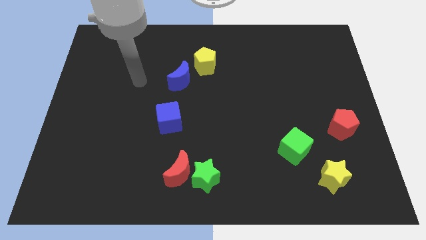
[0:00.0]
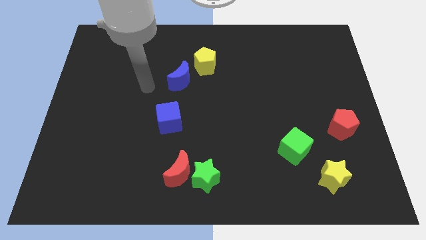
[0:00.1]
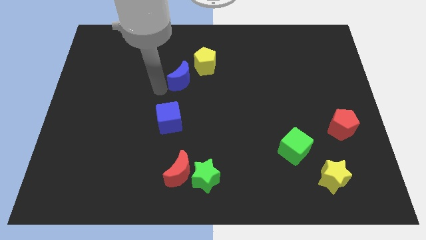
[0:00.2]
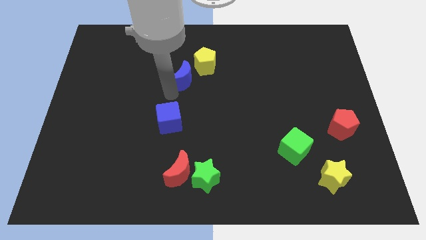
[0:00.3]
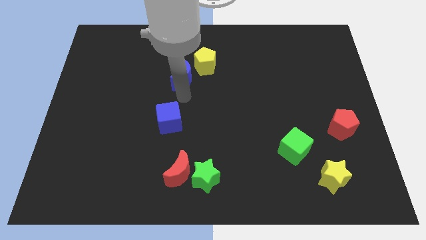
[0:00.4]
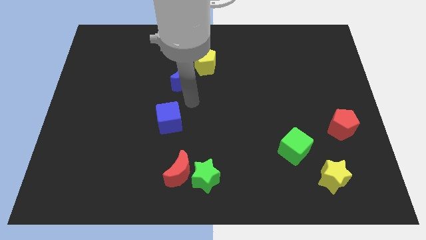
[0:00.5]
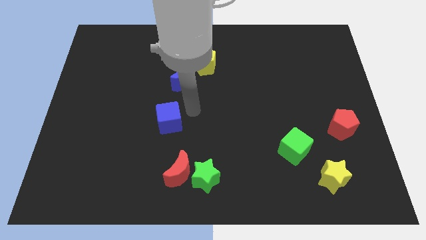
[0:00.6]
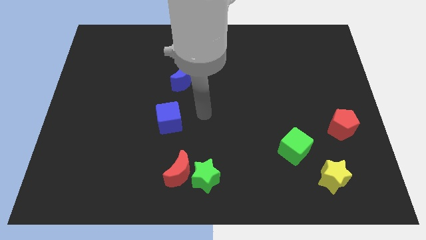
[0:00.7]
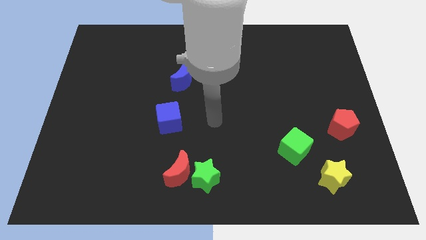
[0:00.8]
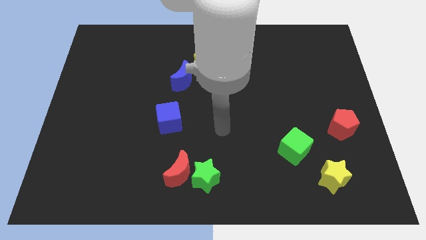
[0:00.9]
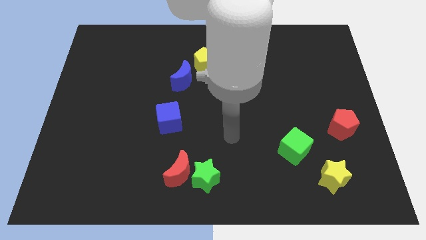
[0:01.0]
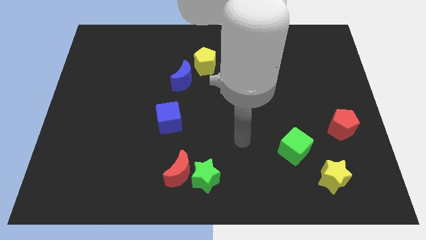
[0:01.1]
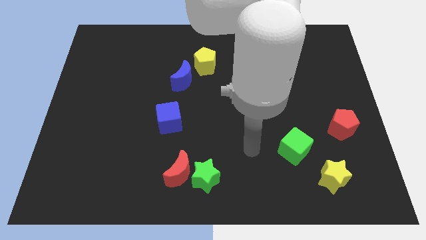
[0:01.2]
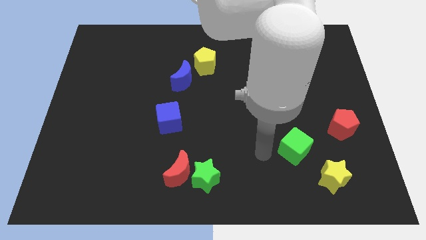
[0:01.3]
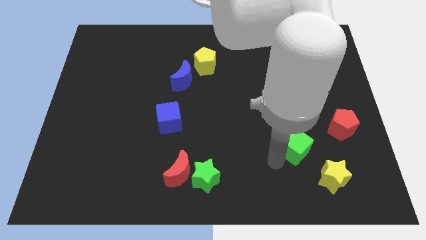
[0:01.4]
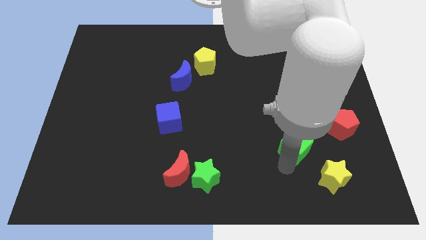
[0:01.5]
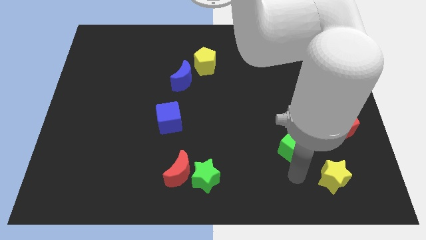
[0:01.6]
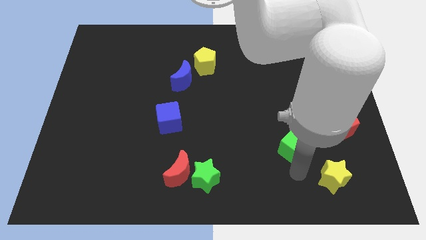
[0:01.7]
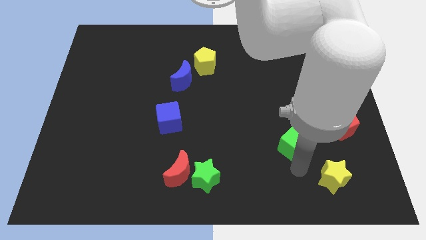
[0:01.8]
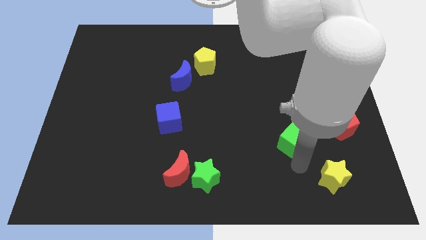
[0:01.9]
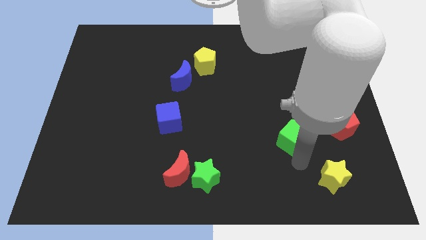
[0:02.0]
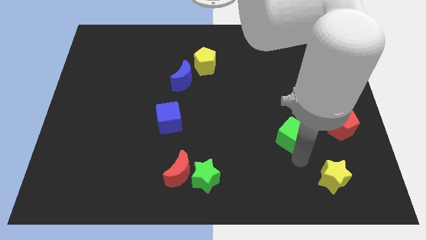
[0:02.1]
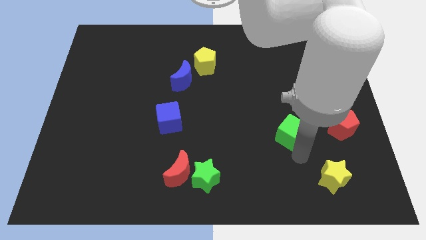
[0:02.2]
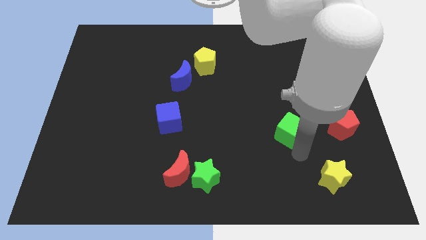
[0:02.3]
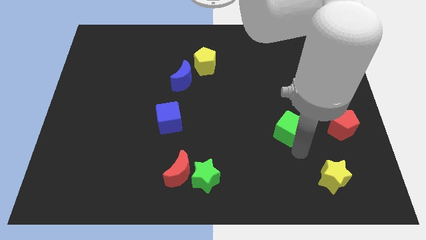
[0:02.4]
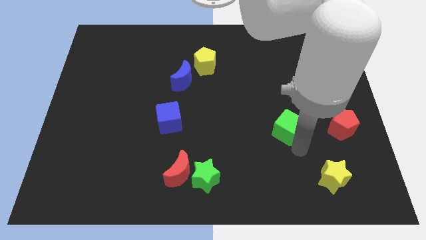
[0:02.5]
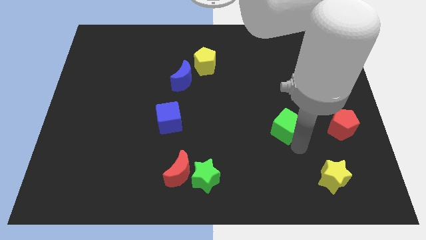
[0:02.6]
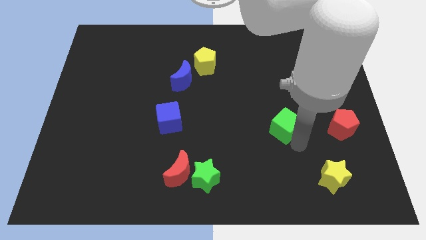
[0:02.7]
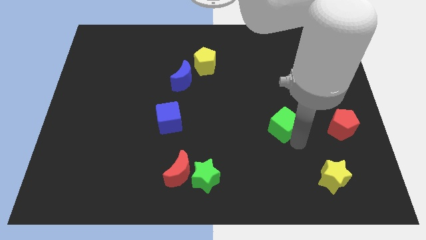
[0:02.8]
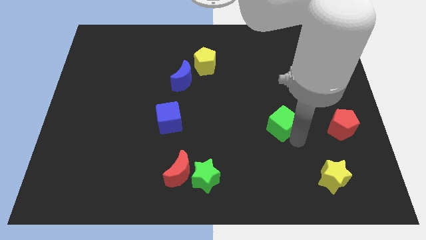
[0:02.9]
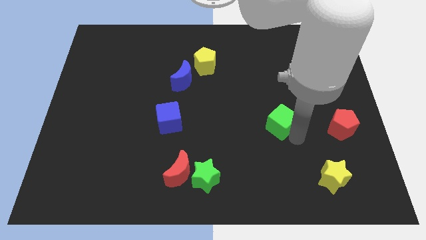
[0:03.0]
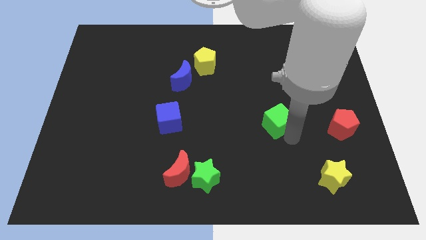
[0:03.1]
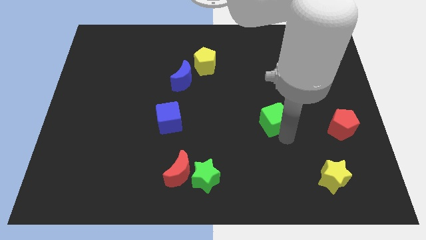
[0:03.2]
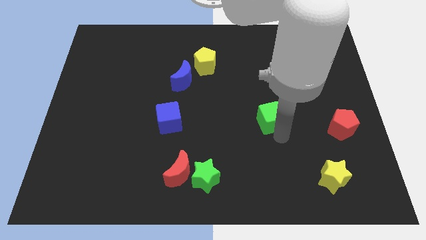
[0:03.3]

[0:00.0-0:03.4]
push the green cube slightly up

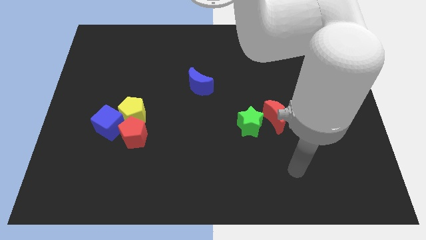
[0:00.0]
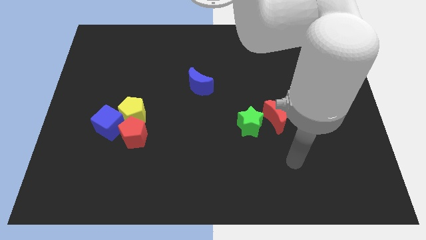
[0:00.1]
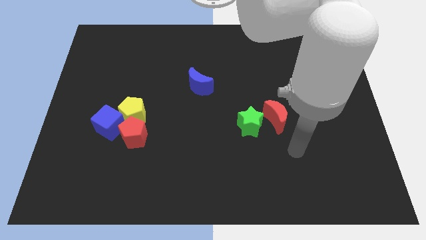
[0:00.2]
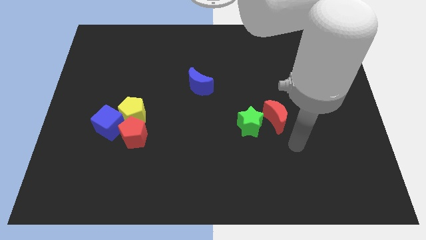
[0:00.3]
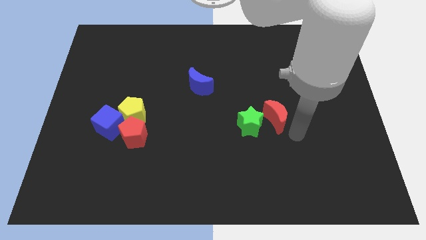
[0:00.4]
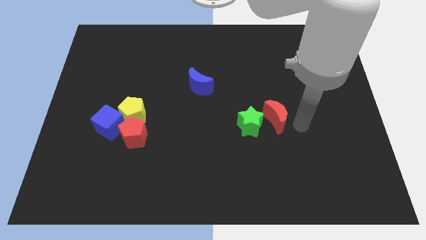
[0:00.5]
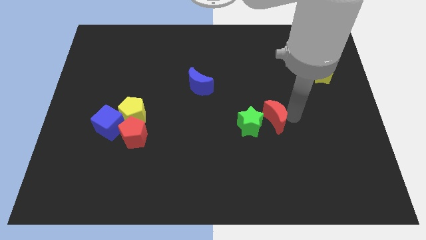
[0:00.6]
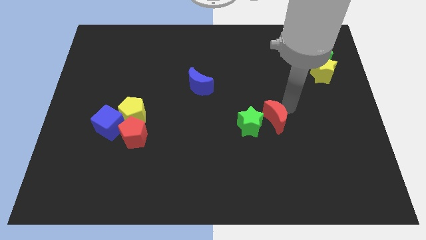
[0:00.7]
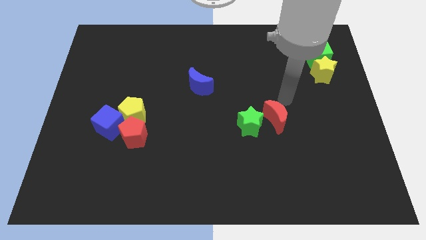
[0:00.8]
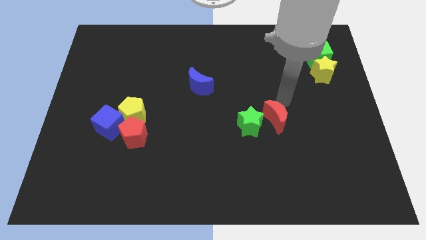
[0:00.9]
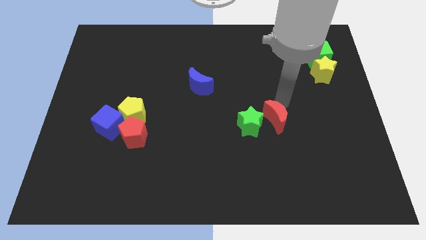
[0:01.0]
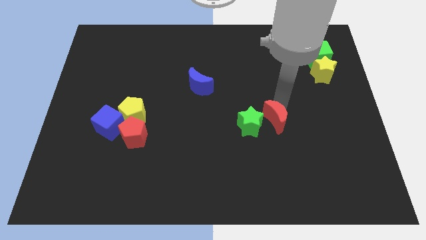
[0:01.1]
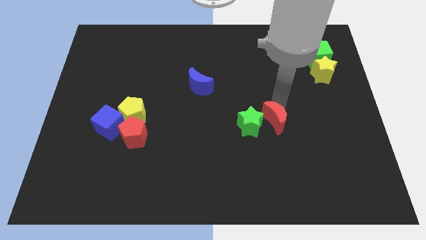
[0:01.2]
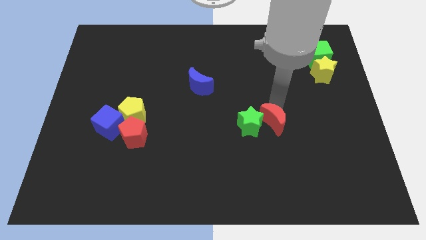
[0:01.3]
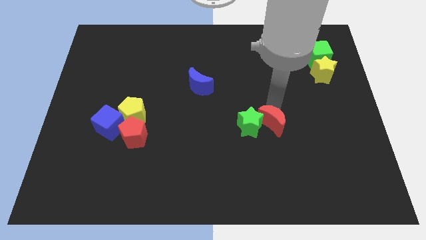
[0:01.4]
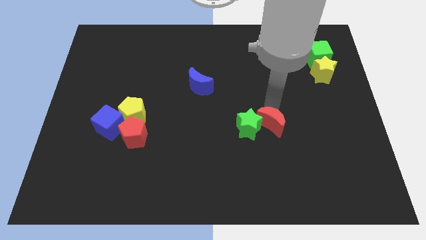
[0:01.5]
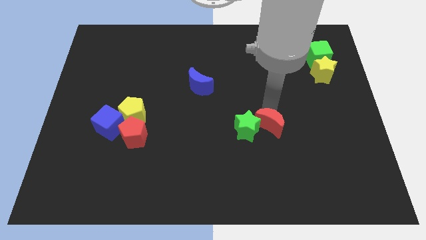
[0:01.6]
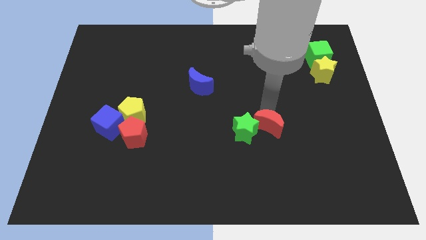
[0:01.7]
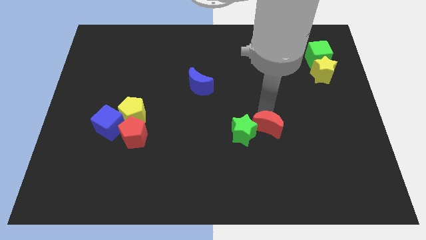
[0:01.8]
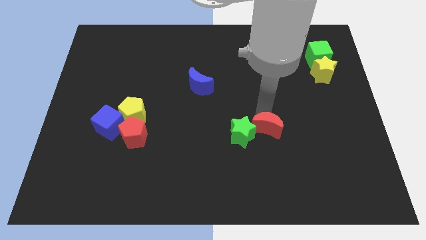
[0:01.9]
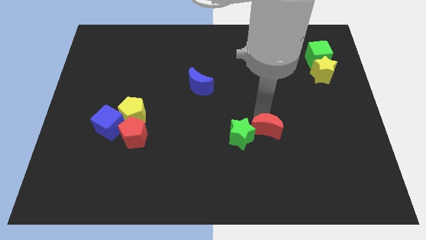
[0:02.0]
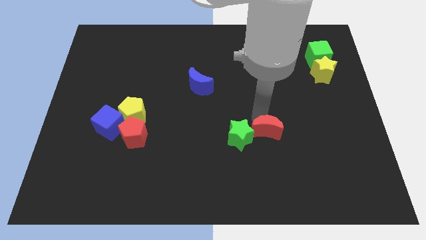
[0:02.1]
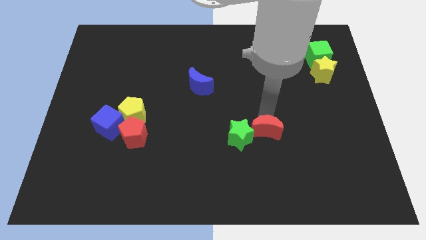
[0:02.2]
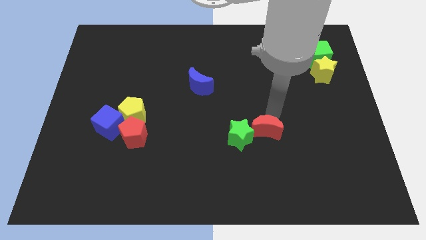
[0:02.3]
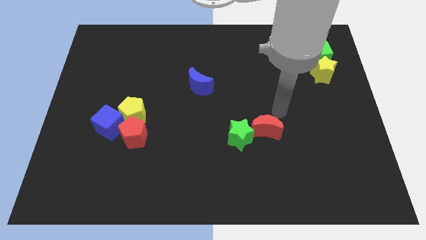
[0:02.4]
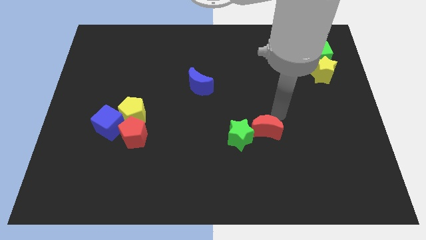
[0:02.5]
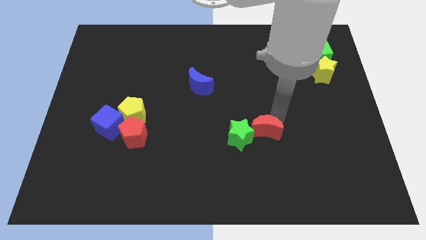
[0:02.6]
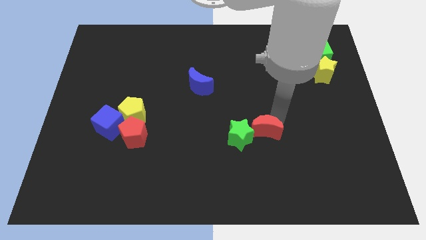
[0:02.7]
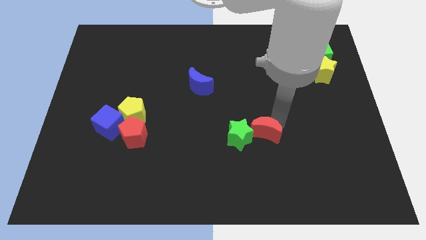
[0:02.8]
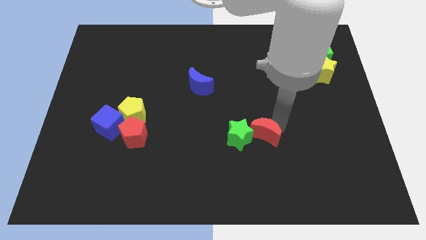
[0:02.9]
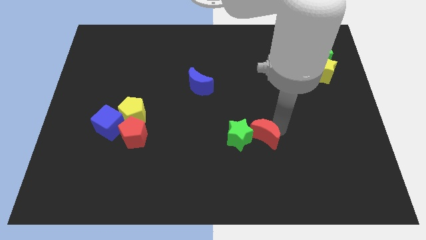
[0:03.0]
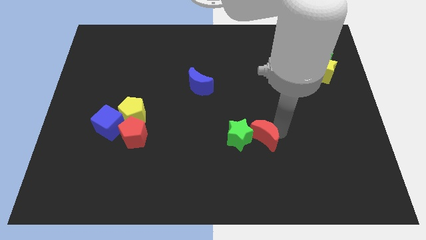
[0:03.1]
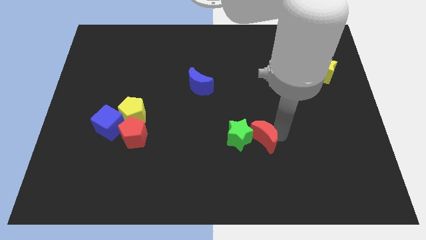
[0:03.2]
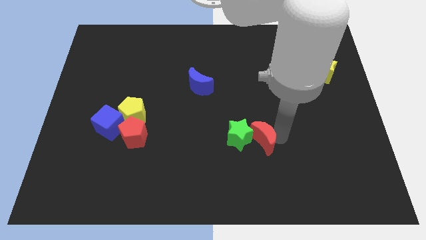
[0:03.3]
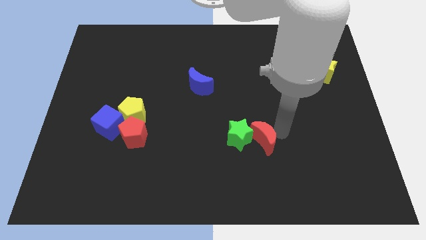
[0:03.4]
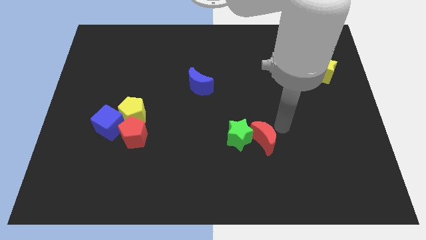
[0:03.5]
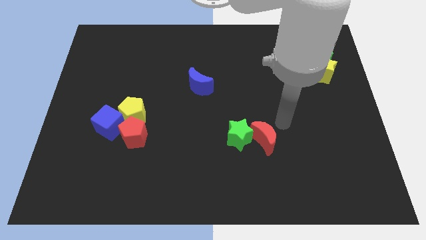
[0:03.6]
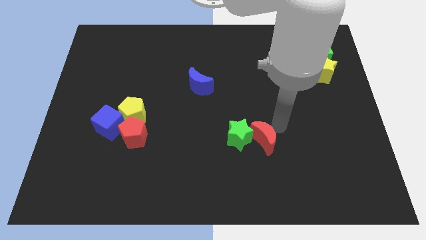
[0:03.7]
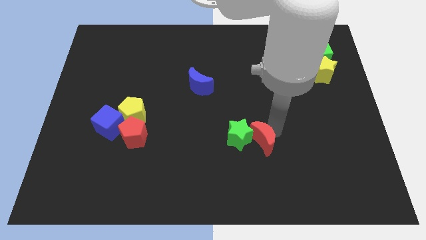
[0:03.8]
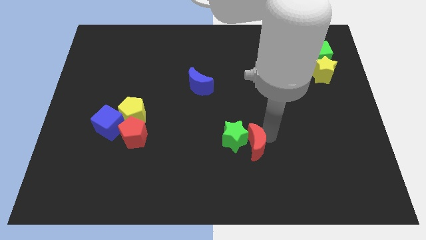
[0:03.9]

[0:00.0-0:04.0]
slide the red moon downwards and to the left somewhat

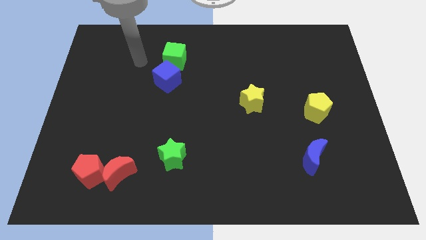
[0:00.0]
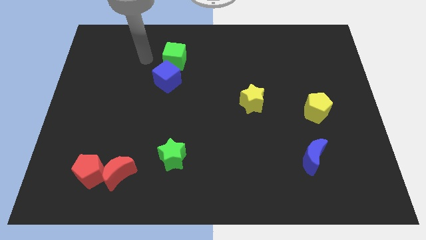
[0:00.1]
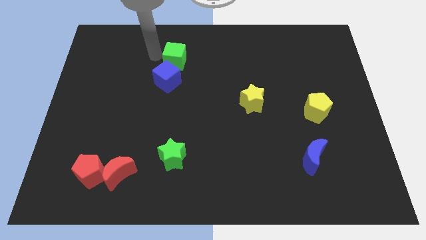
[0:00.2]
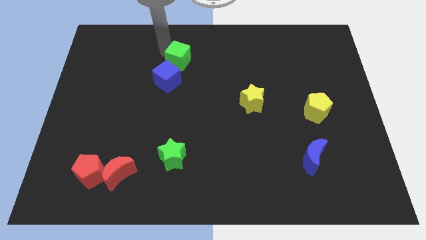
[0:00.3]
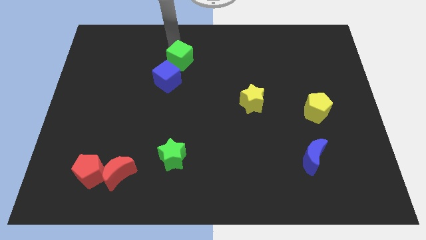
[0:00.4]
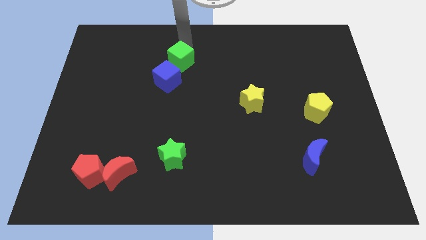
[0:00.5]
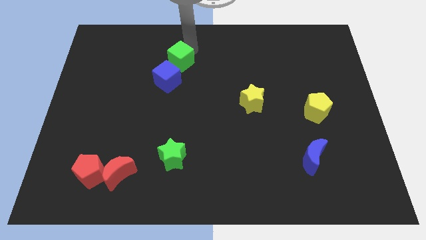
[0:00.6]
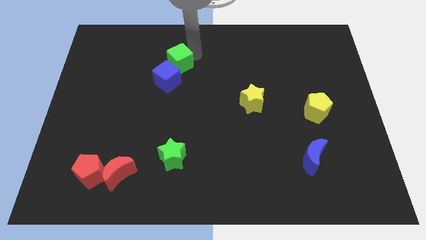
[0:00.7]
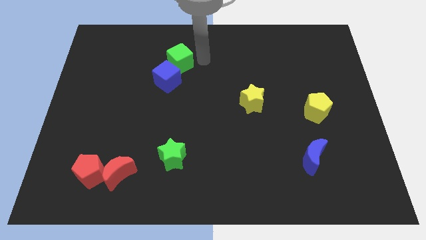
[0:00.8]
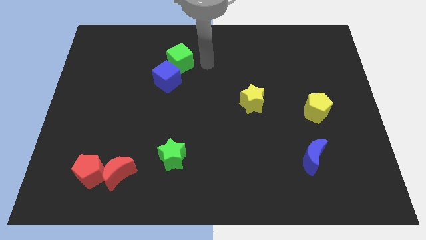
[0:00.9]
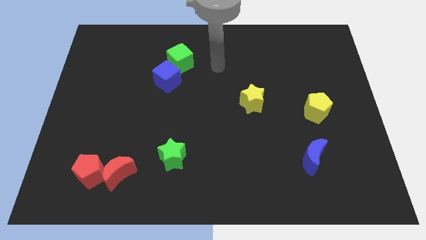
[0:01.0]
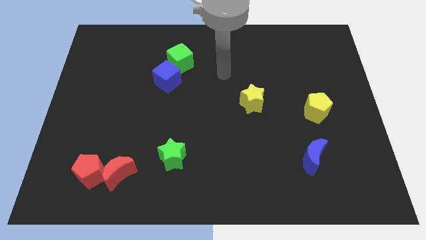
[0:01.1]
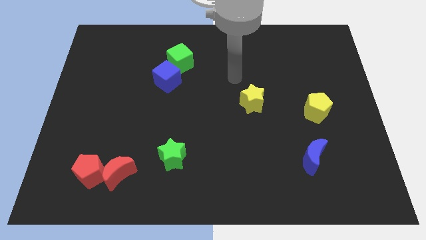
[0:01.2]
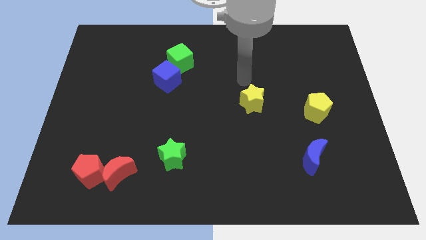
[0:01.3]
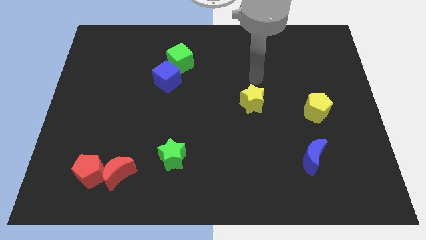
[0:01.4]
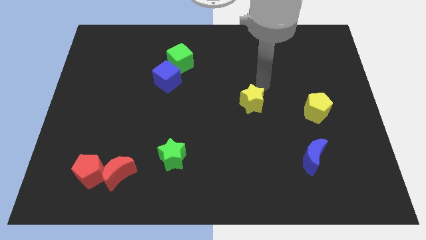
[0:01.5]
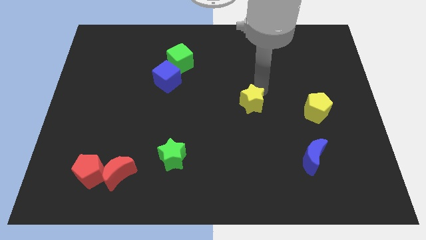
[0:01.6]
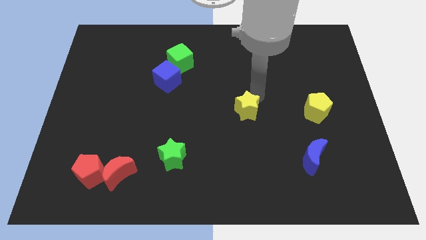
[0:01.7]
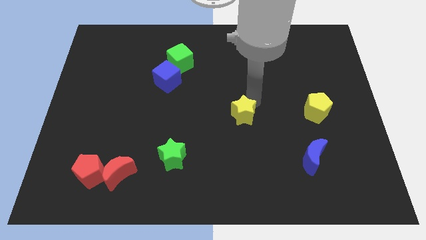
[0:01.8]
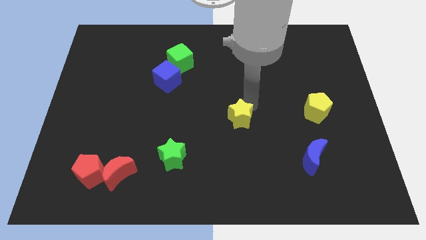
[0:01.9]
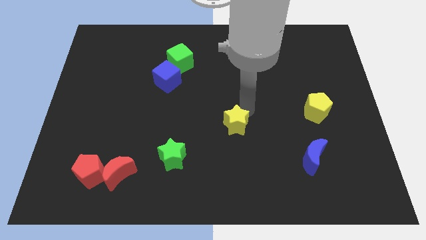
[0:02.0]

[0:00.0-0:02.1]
push the yellow star slightly diagonally downwards and left
